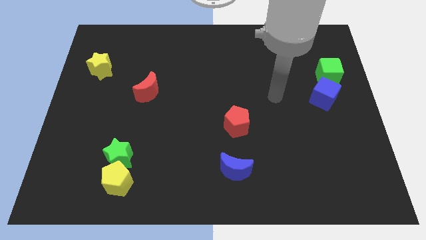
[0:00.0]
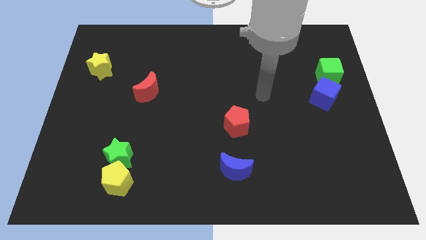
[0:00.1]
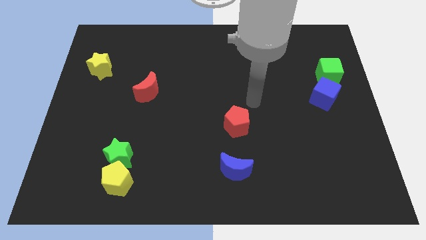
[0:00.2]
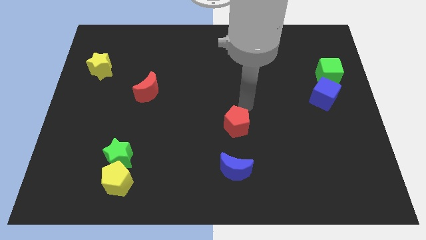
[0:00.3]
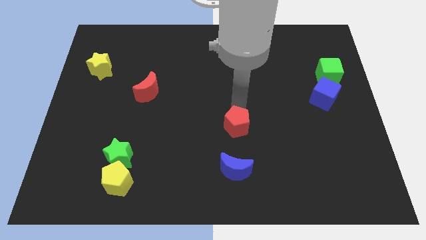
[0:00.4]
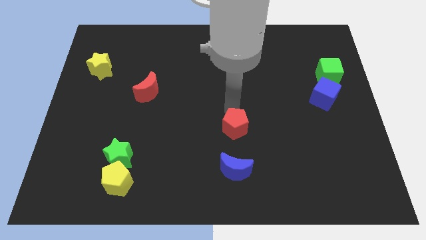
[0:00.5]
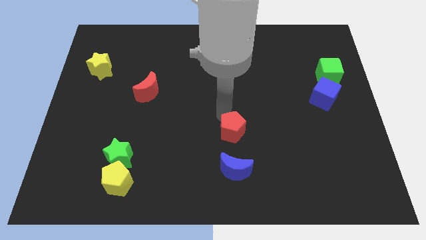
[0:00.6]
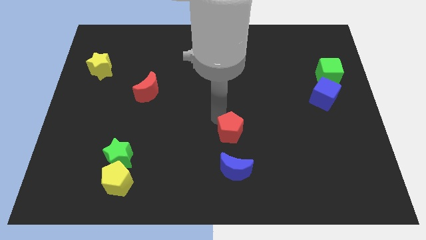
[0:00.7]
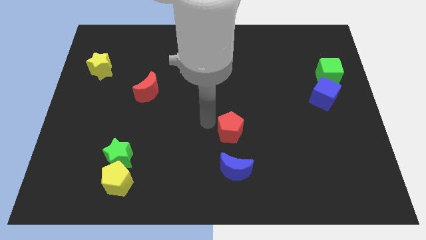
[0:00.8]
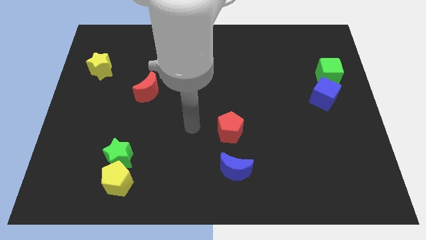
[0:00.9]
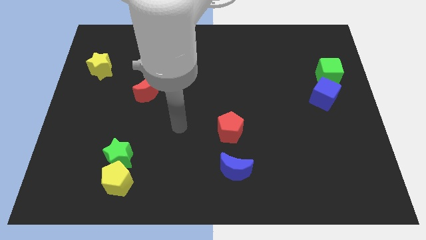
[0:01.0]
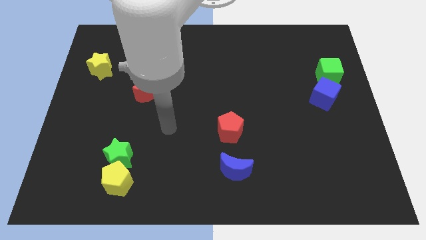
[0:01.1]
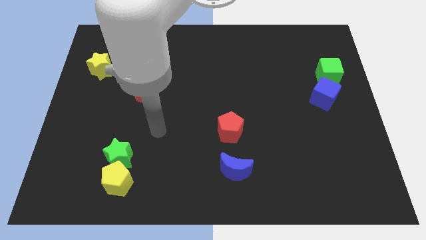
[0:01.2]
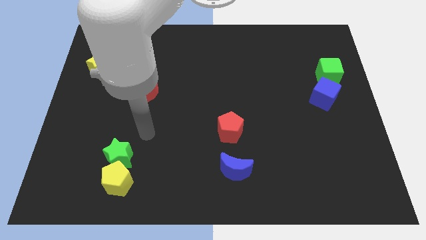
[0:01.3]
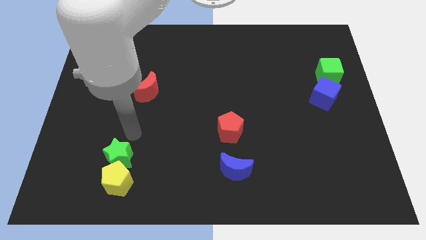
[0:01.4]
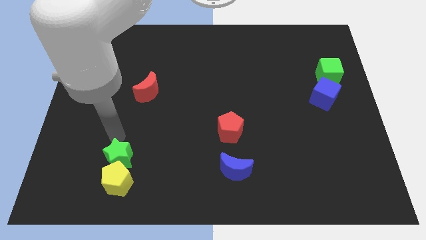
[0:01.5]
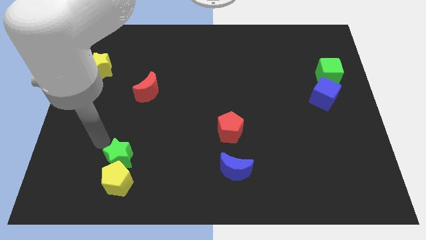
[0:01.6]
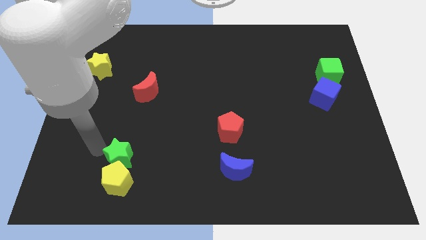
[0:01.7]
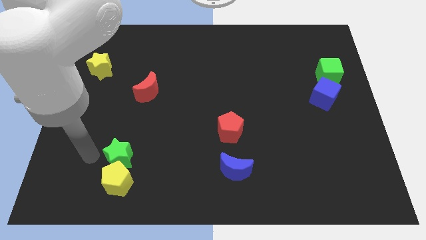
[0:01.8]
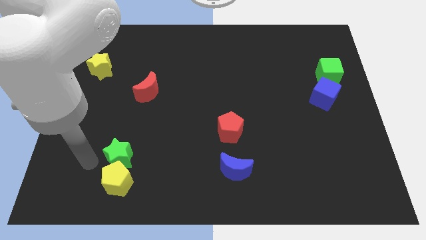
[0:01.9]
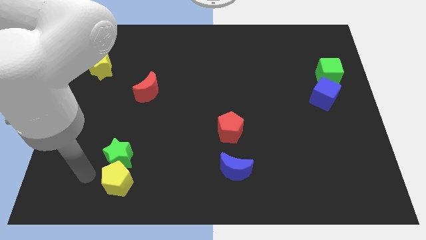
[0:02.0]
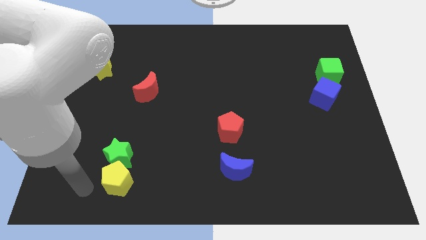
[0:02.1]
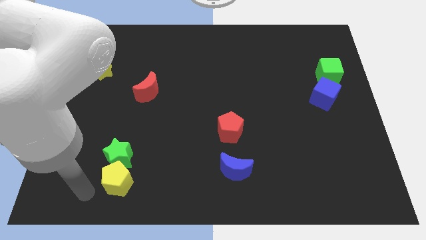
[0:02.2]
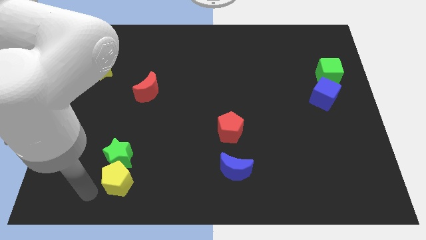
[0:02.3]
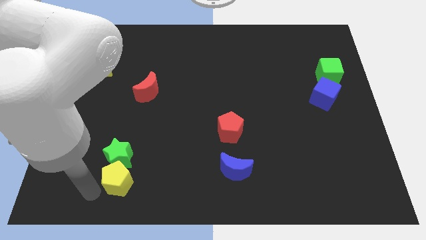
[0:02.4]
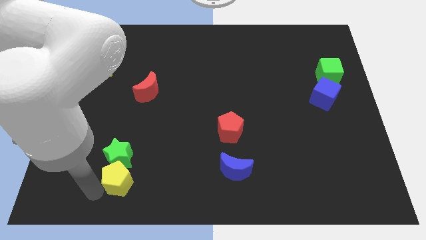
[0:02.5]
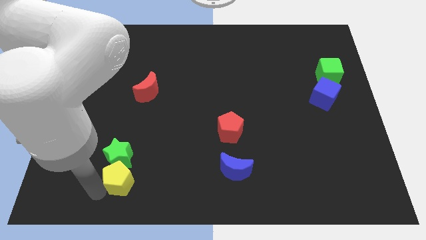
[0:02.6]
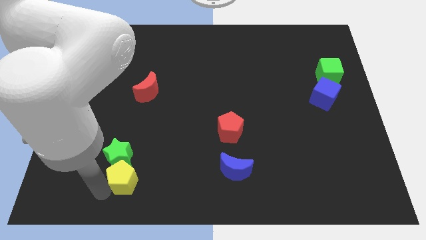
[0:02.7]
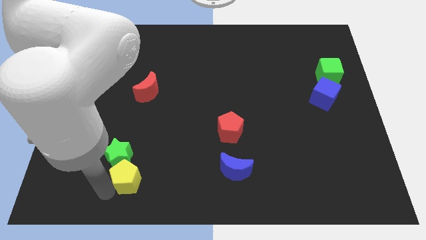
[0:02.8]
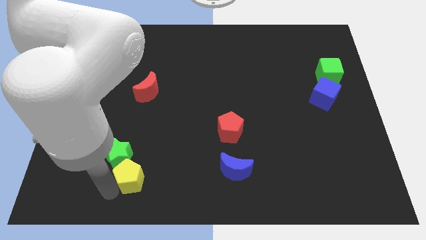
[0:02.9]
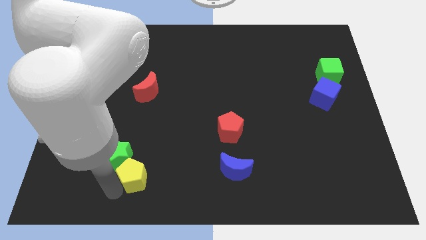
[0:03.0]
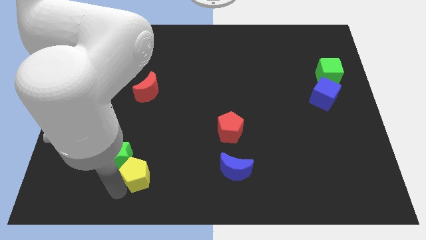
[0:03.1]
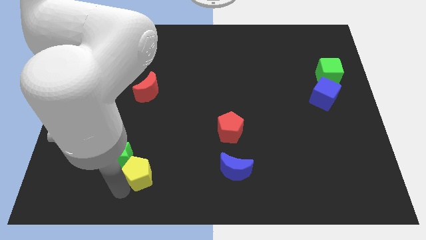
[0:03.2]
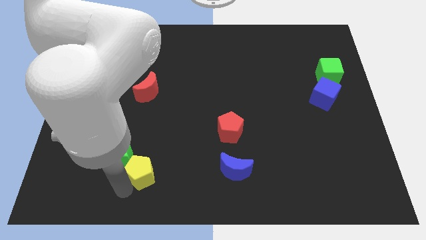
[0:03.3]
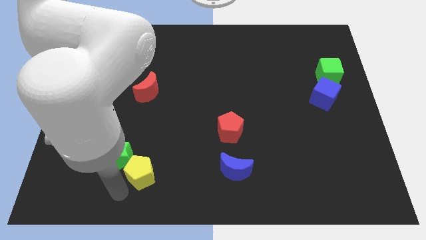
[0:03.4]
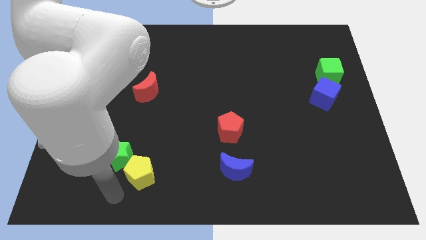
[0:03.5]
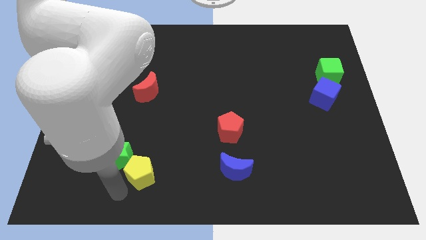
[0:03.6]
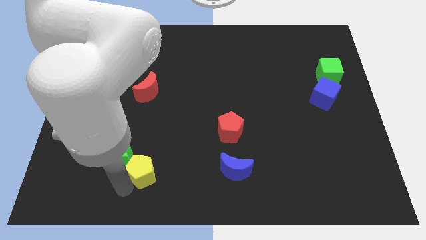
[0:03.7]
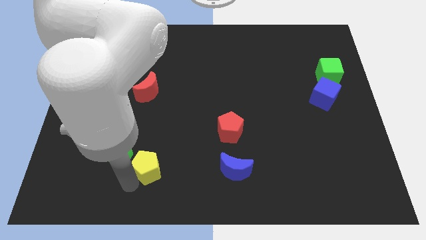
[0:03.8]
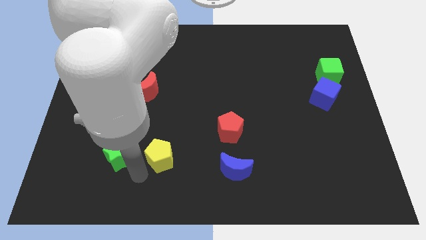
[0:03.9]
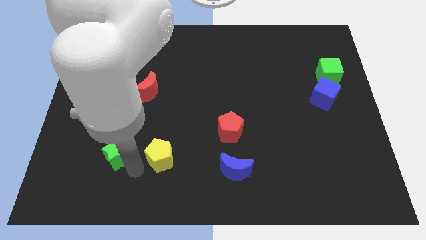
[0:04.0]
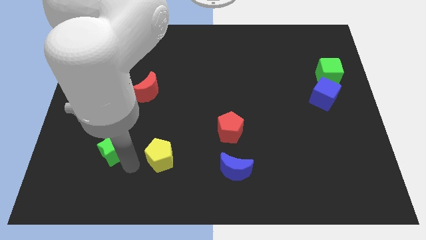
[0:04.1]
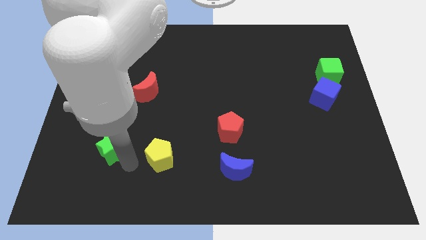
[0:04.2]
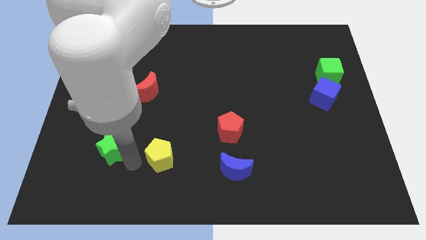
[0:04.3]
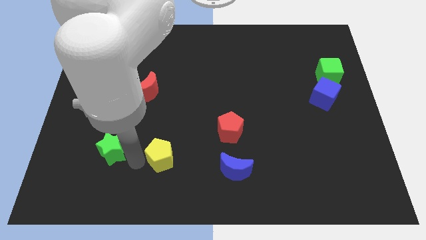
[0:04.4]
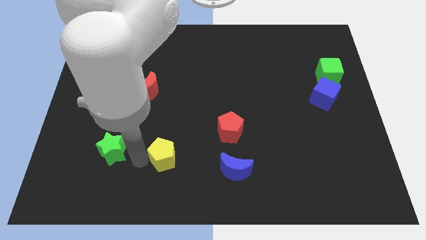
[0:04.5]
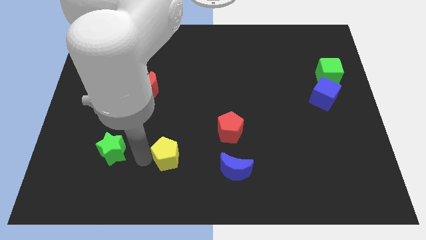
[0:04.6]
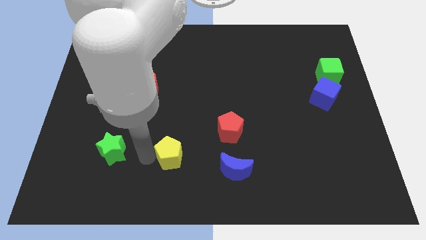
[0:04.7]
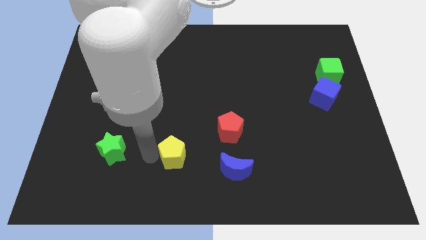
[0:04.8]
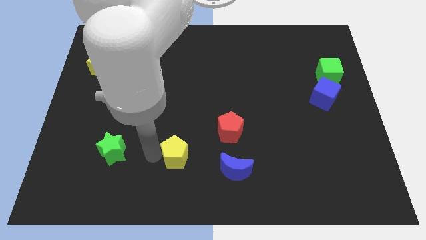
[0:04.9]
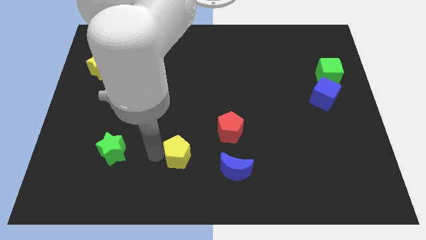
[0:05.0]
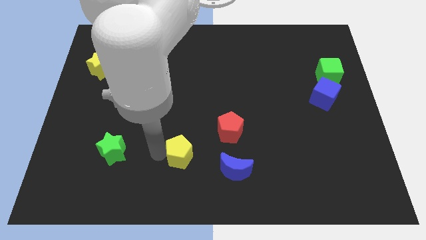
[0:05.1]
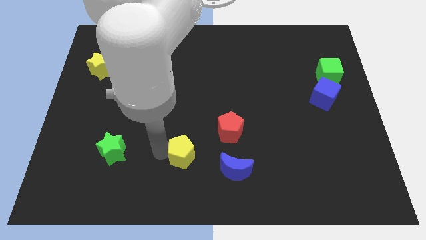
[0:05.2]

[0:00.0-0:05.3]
slide the yellow pentagon to the bottom left side of the red pentagon

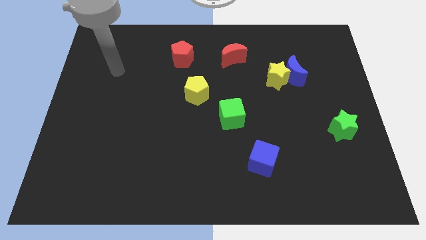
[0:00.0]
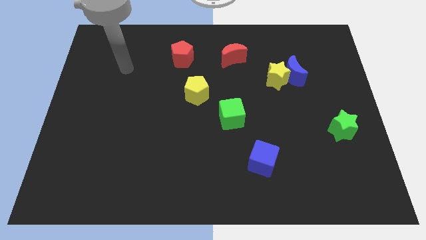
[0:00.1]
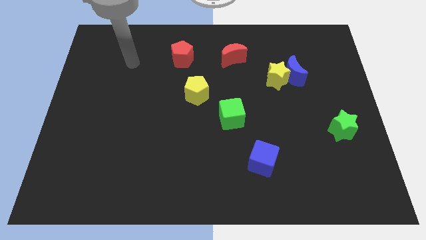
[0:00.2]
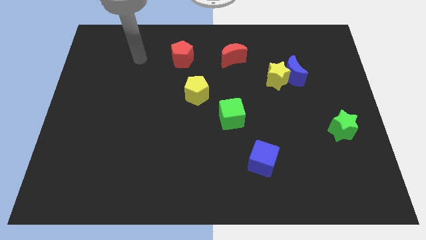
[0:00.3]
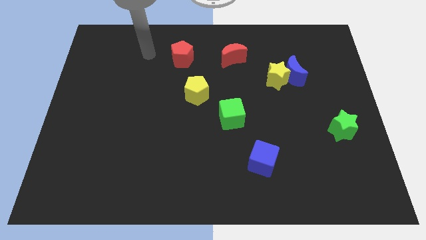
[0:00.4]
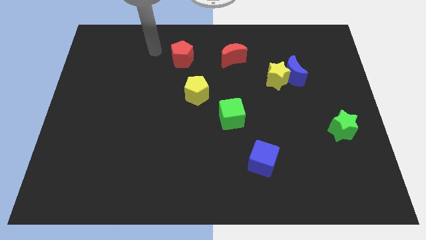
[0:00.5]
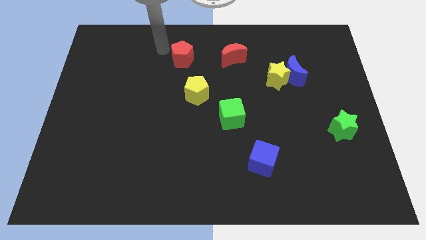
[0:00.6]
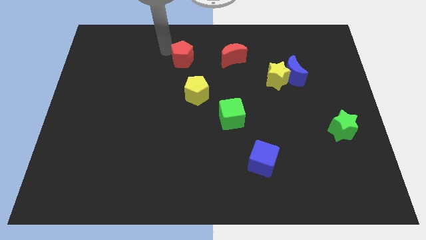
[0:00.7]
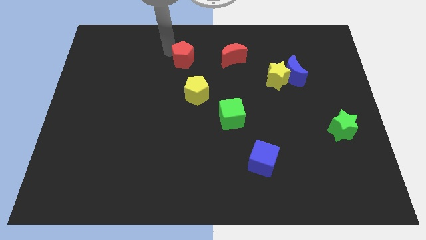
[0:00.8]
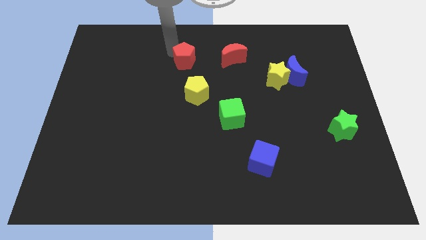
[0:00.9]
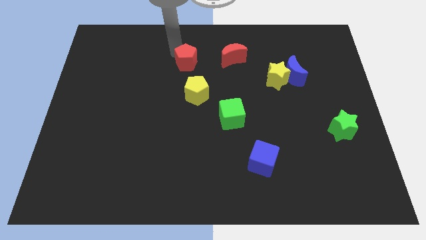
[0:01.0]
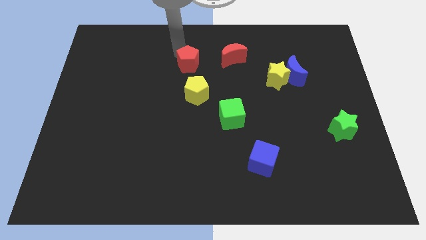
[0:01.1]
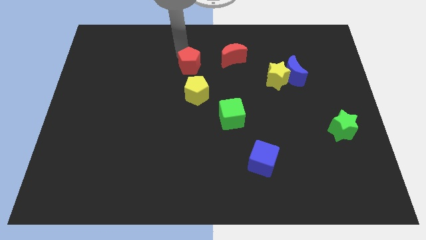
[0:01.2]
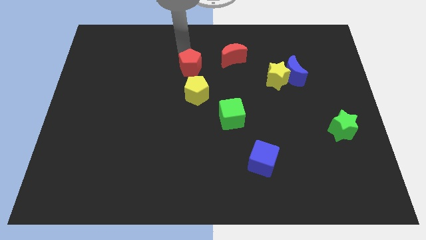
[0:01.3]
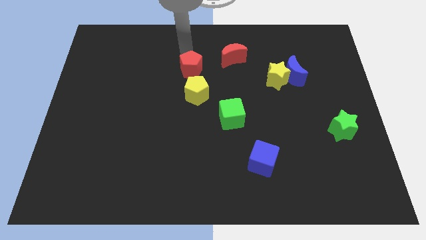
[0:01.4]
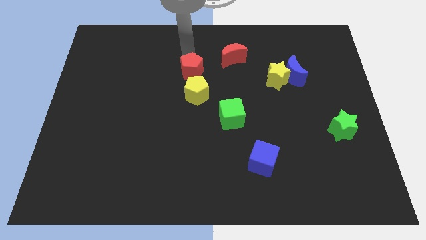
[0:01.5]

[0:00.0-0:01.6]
move the red pentagon to the bottom left of the red moon

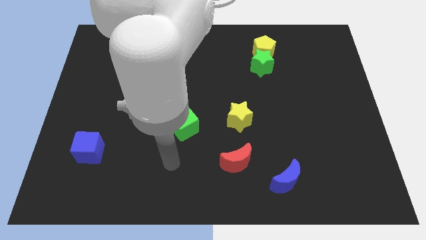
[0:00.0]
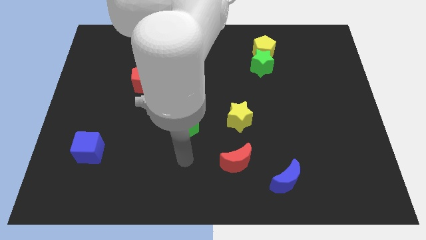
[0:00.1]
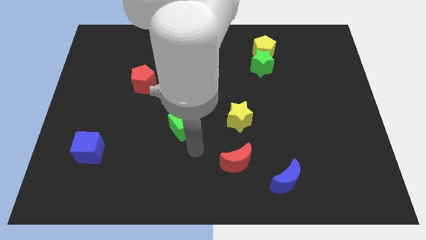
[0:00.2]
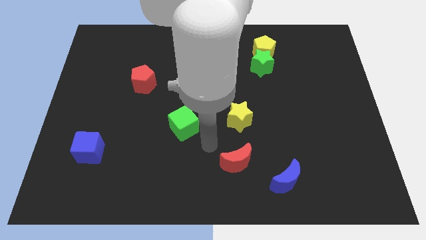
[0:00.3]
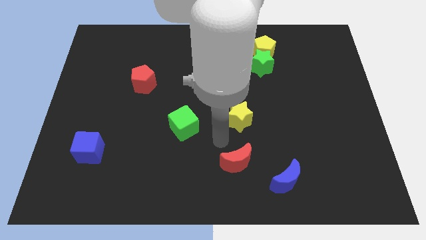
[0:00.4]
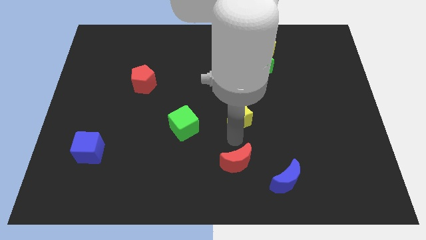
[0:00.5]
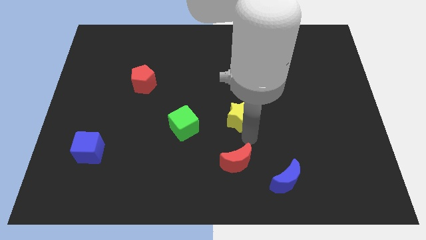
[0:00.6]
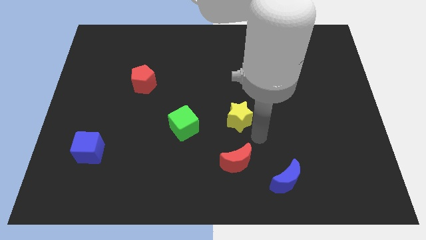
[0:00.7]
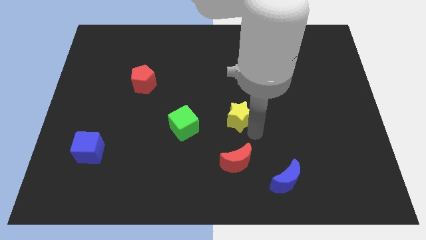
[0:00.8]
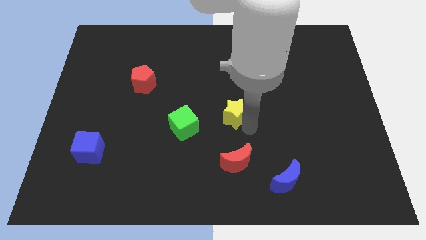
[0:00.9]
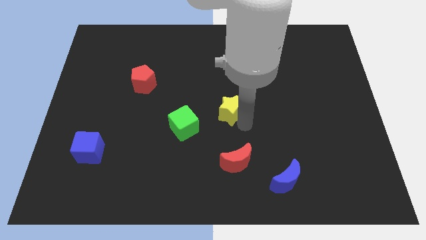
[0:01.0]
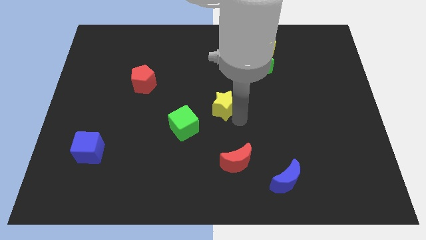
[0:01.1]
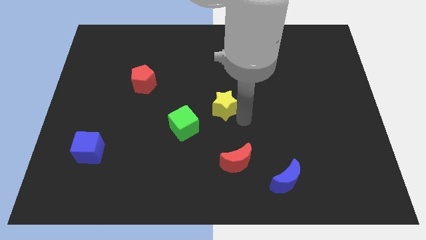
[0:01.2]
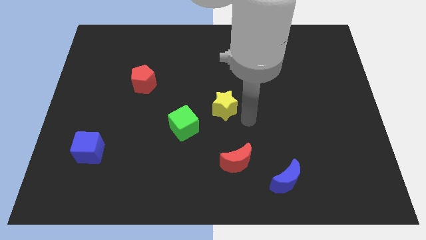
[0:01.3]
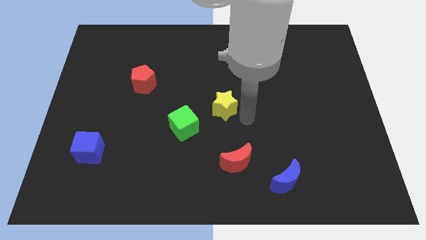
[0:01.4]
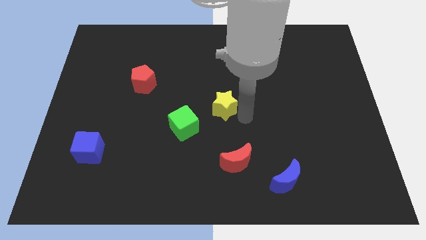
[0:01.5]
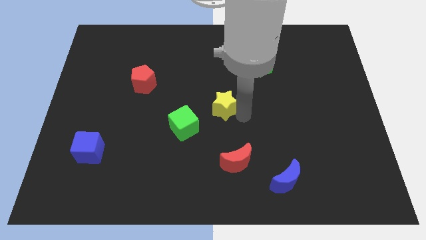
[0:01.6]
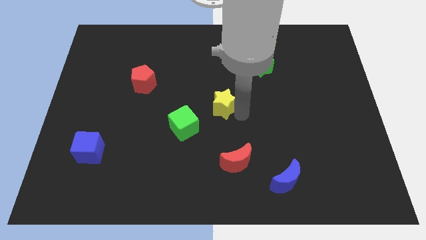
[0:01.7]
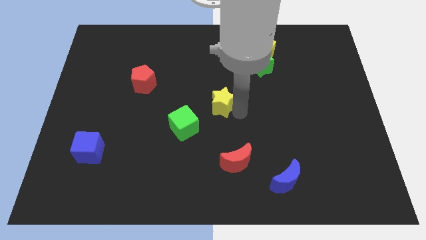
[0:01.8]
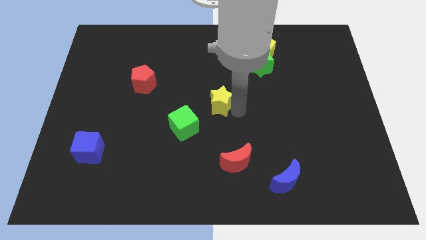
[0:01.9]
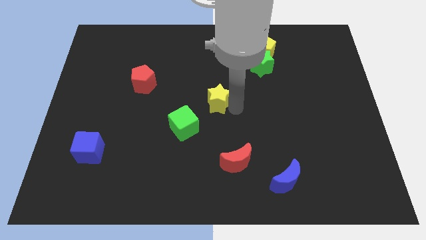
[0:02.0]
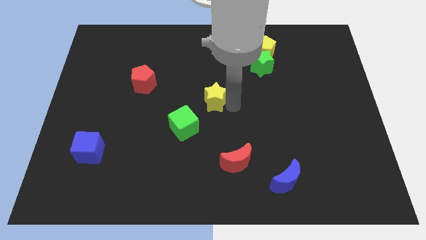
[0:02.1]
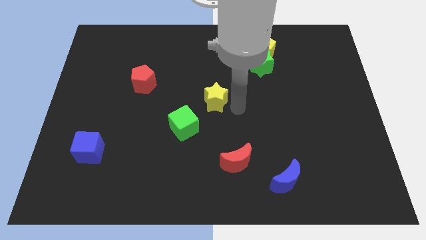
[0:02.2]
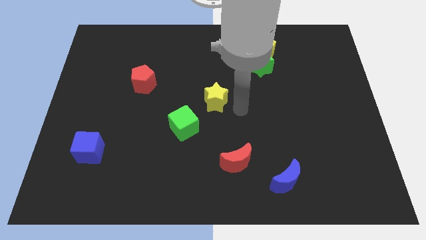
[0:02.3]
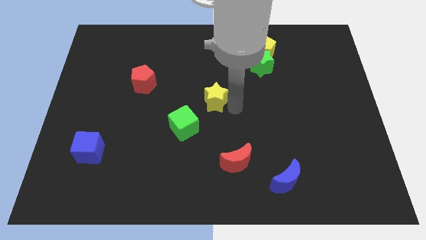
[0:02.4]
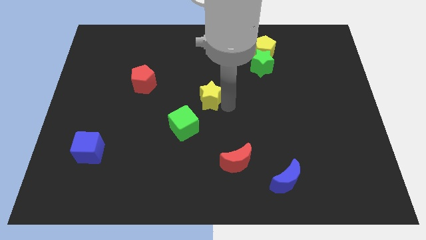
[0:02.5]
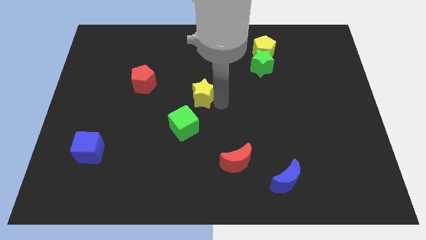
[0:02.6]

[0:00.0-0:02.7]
push the yellow star to the top of the green cube
